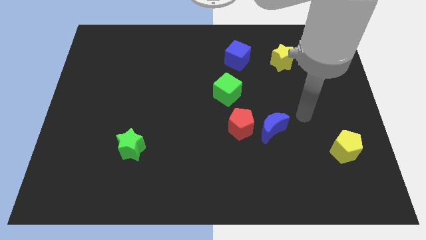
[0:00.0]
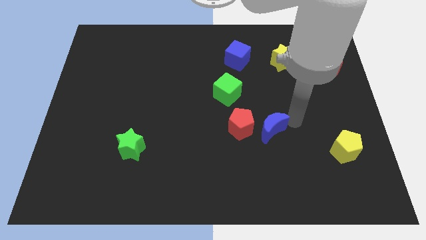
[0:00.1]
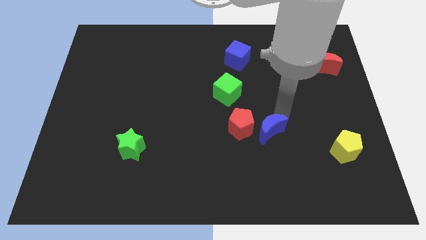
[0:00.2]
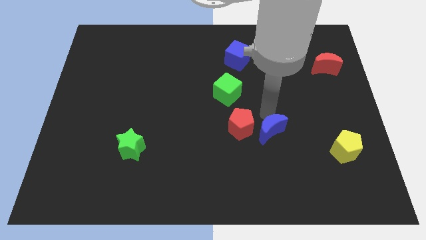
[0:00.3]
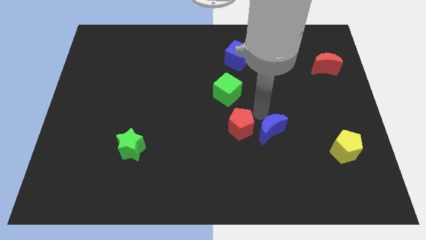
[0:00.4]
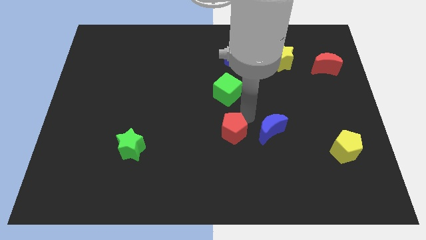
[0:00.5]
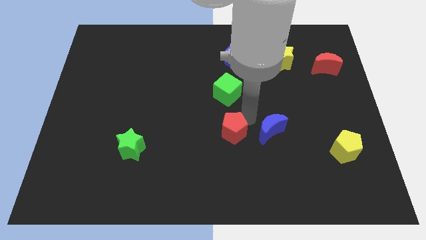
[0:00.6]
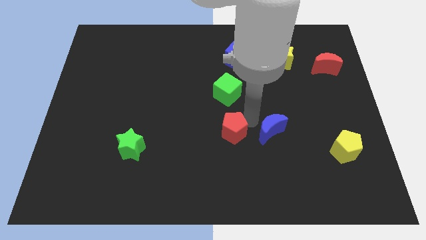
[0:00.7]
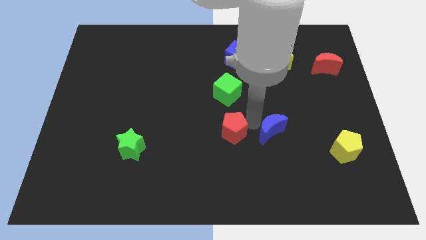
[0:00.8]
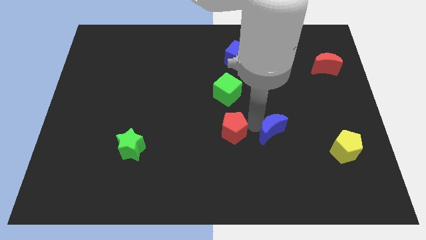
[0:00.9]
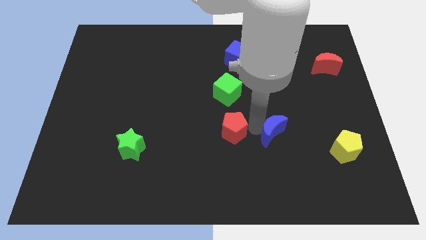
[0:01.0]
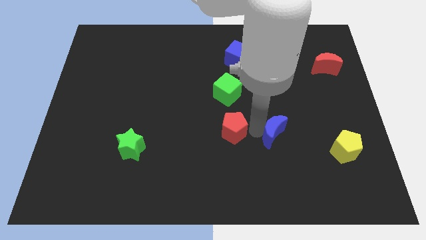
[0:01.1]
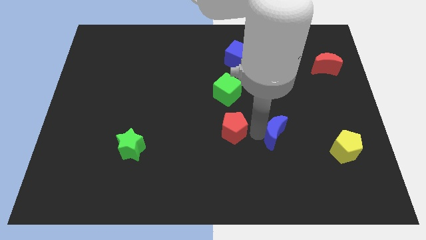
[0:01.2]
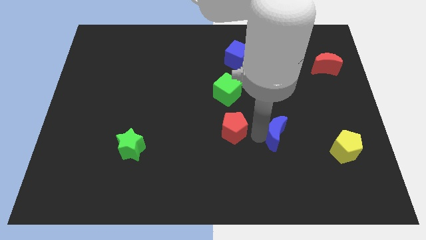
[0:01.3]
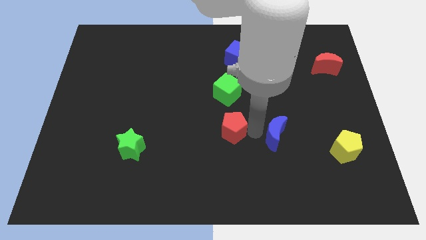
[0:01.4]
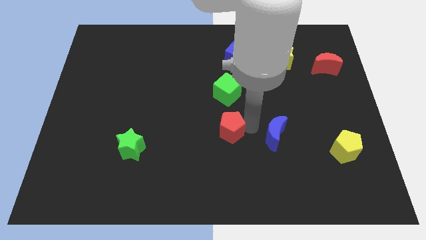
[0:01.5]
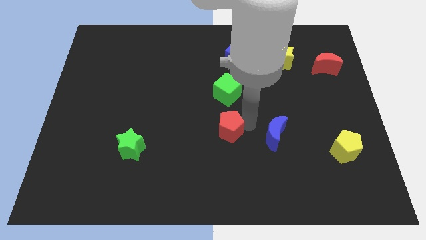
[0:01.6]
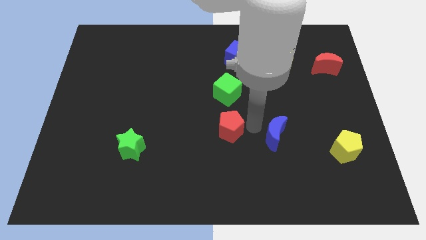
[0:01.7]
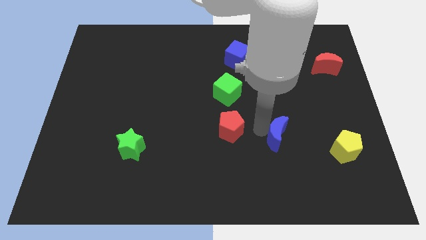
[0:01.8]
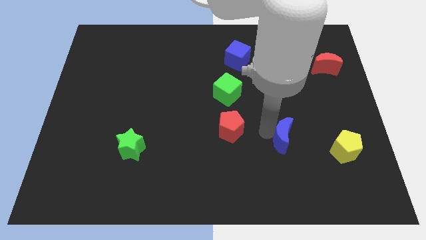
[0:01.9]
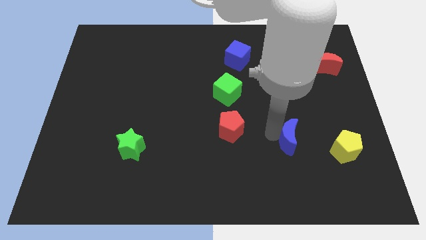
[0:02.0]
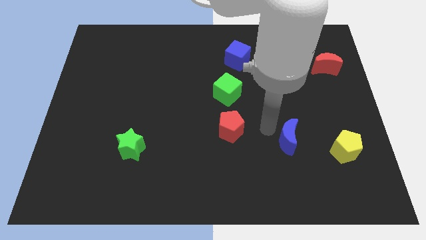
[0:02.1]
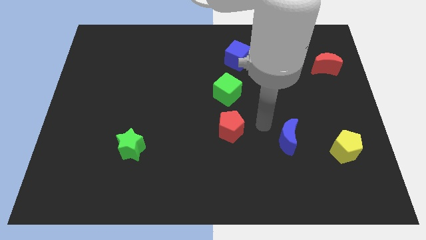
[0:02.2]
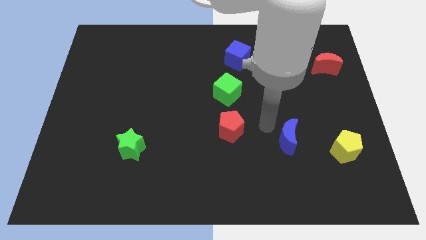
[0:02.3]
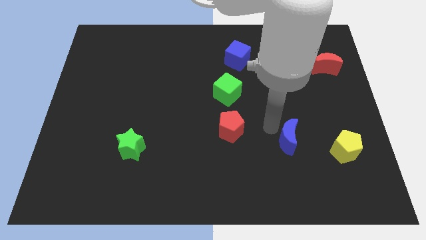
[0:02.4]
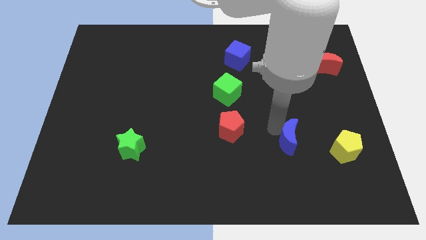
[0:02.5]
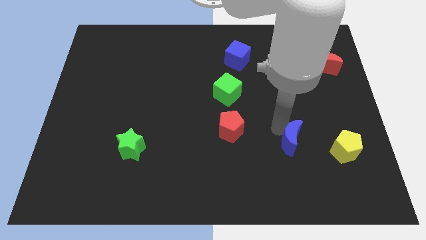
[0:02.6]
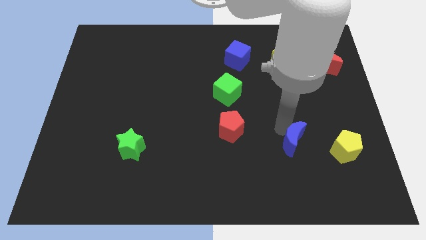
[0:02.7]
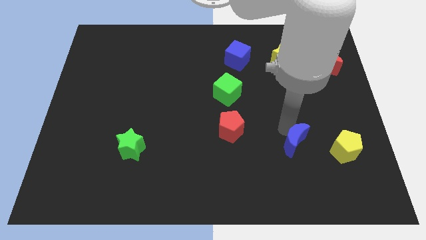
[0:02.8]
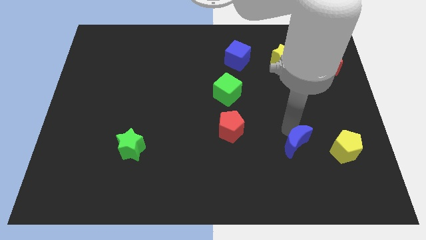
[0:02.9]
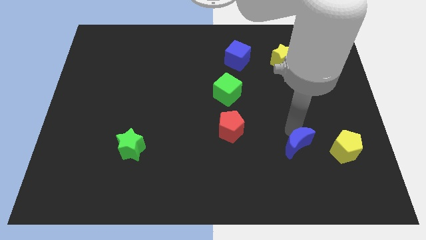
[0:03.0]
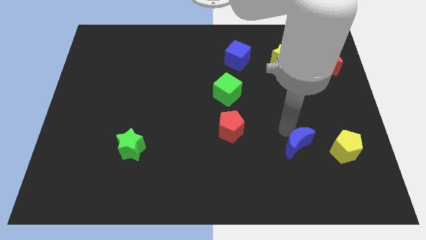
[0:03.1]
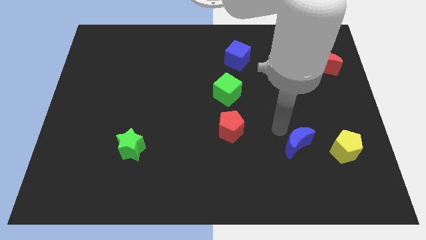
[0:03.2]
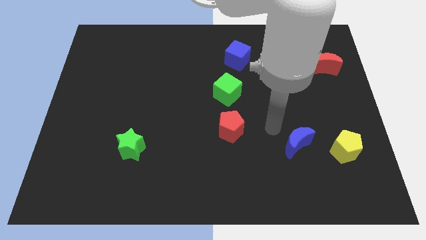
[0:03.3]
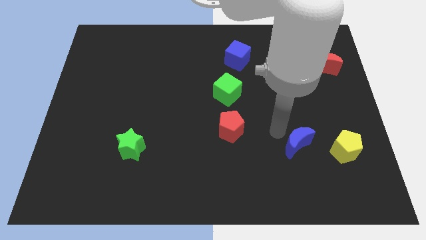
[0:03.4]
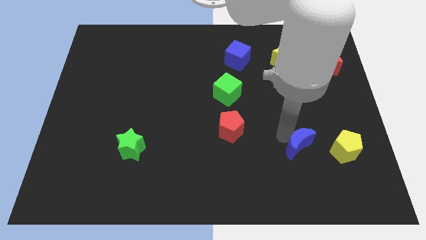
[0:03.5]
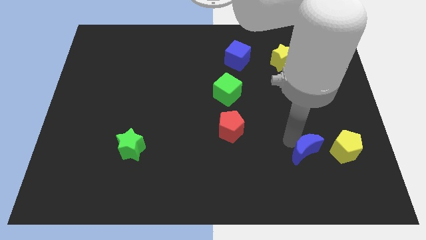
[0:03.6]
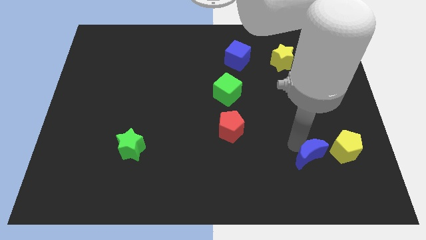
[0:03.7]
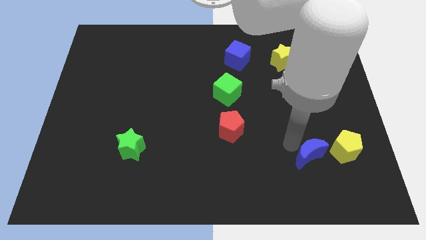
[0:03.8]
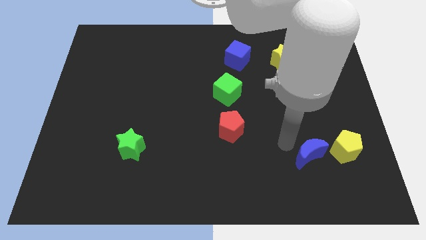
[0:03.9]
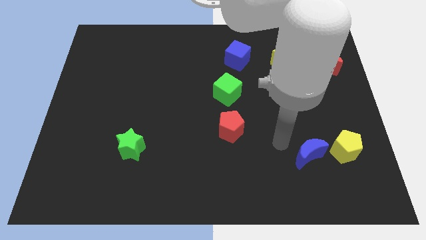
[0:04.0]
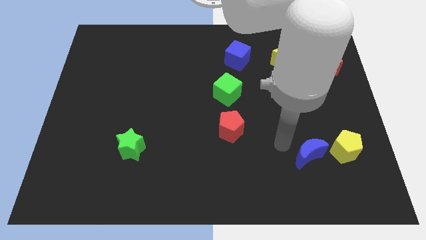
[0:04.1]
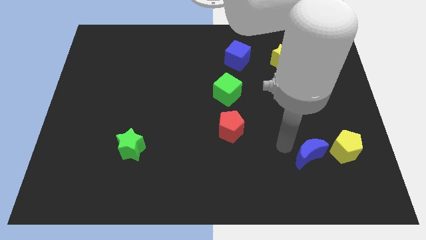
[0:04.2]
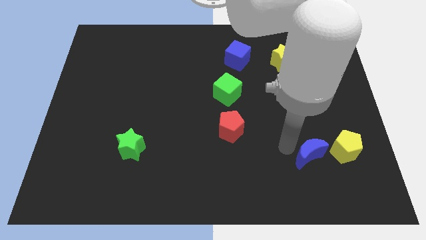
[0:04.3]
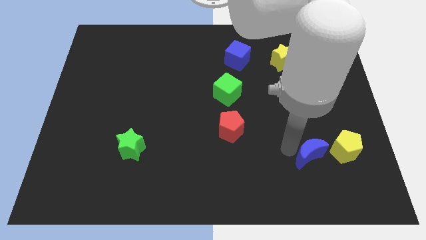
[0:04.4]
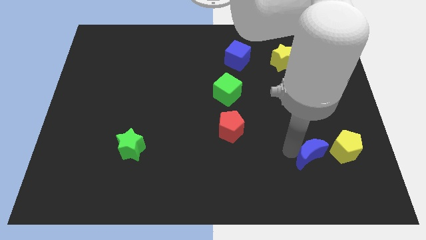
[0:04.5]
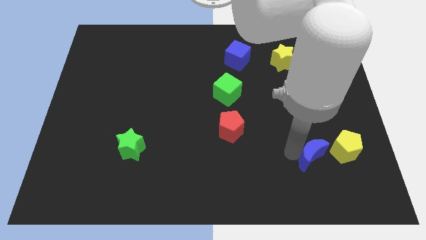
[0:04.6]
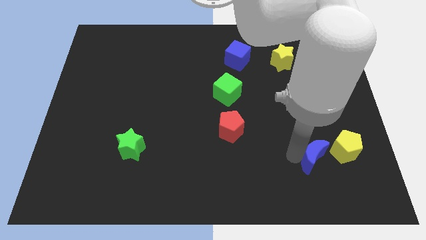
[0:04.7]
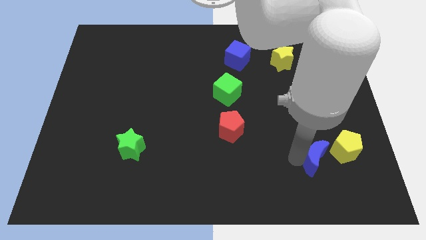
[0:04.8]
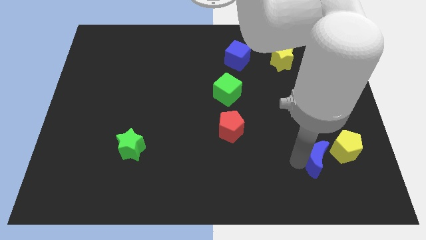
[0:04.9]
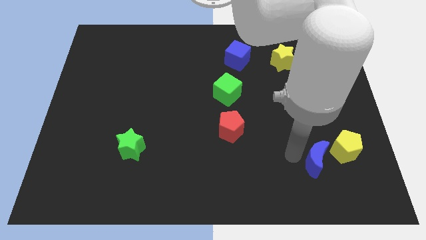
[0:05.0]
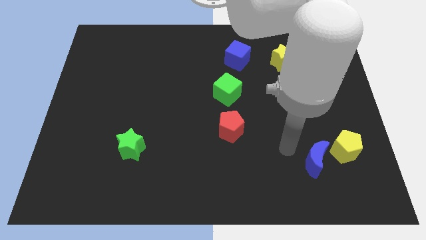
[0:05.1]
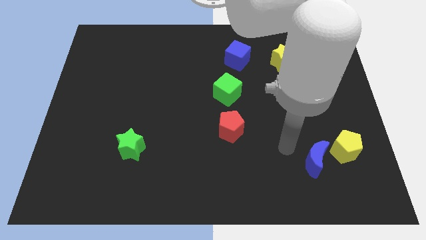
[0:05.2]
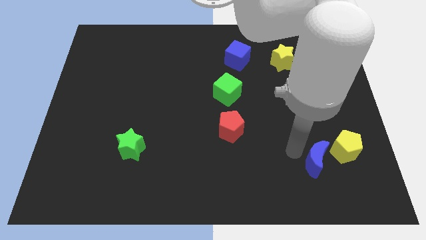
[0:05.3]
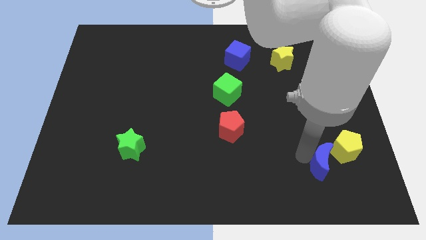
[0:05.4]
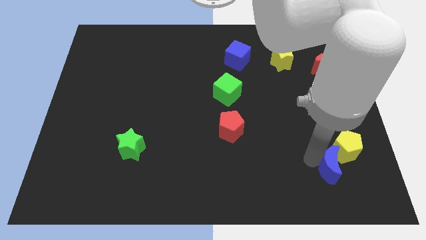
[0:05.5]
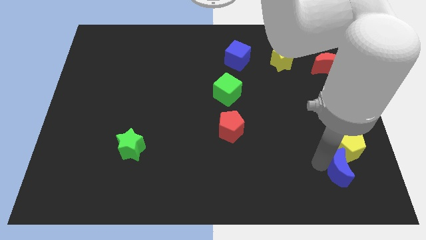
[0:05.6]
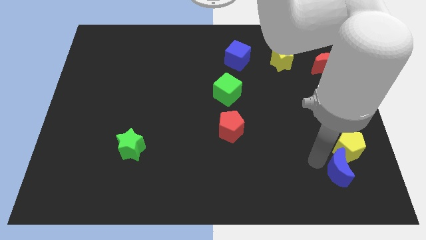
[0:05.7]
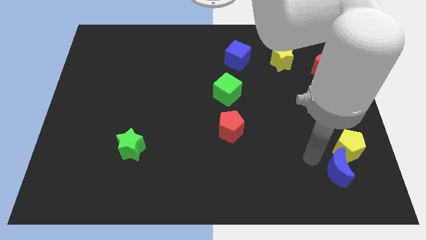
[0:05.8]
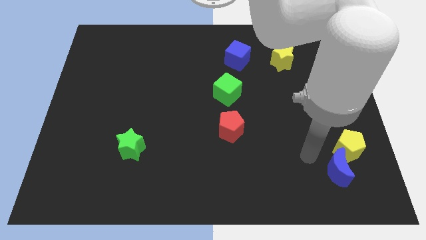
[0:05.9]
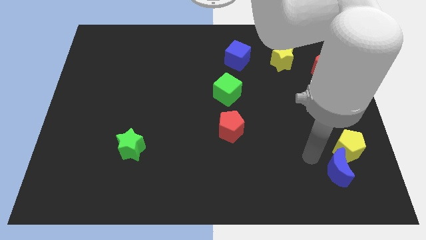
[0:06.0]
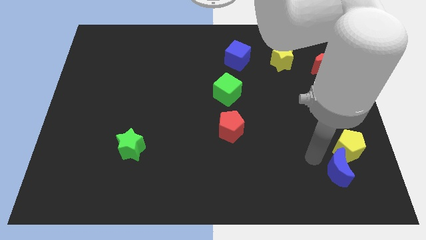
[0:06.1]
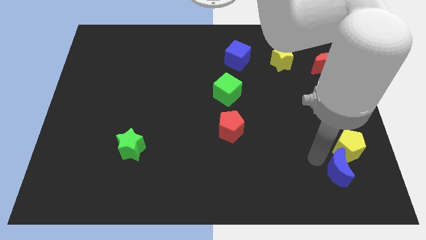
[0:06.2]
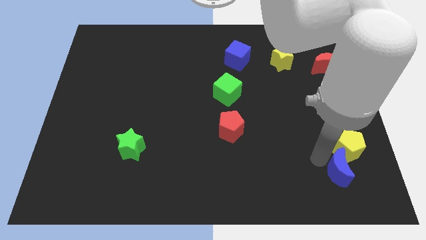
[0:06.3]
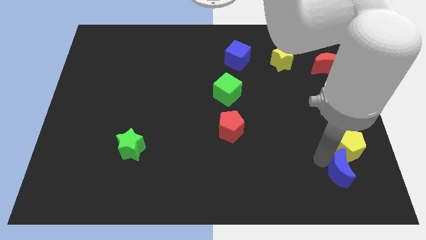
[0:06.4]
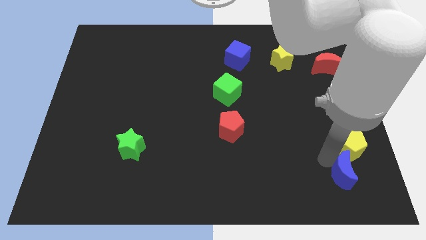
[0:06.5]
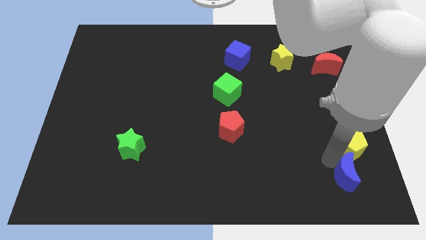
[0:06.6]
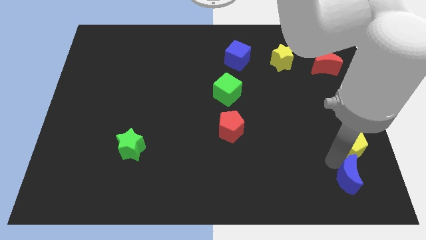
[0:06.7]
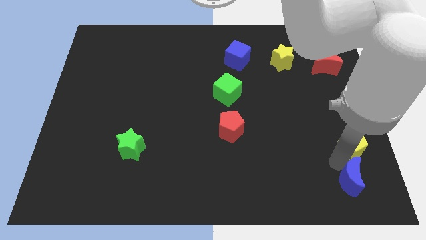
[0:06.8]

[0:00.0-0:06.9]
push the blue moon to the bottom right
